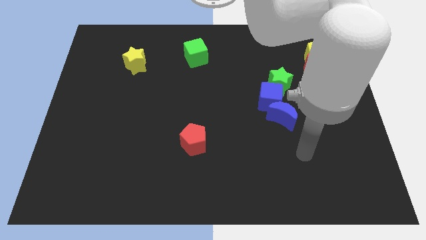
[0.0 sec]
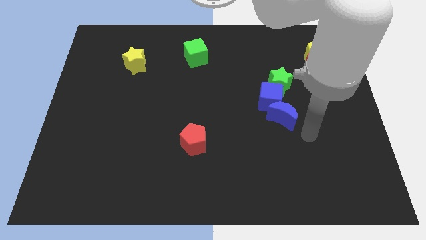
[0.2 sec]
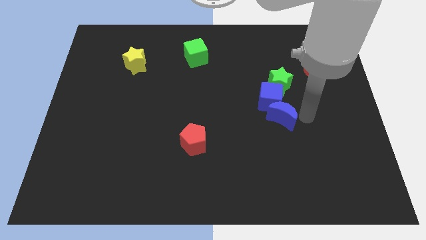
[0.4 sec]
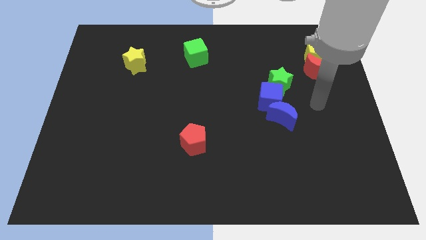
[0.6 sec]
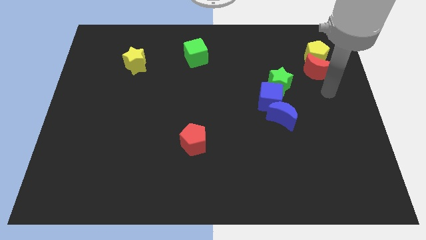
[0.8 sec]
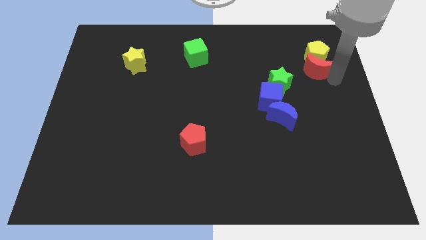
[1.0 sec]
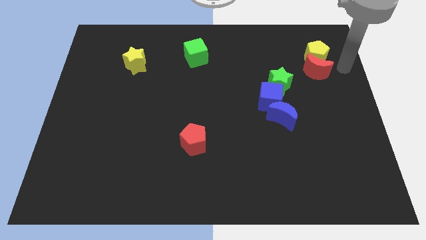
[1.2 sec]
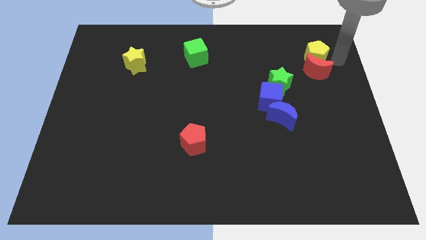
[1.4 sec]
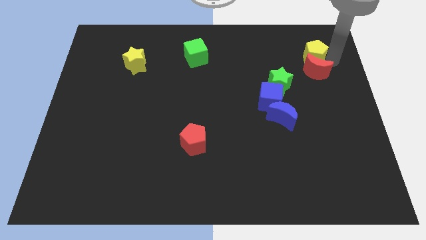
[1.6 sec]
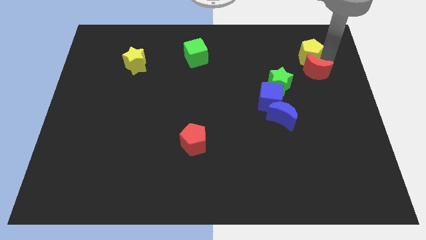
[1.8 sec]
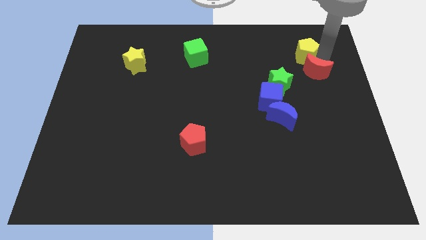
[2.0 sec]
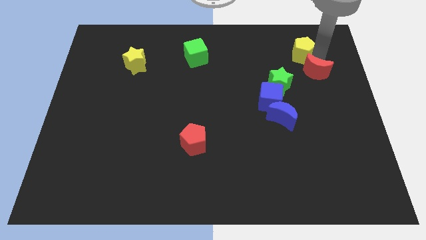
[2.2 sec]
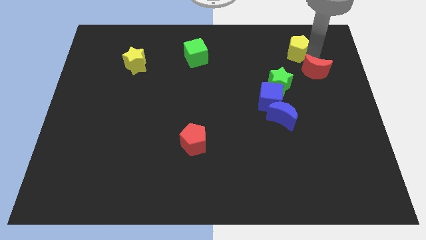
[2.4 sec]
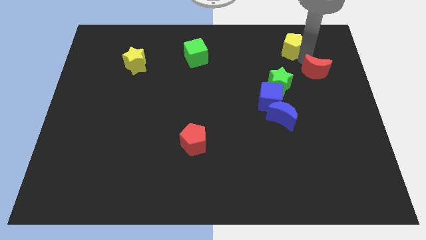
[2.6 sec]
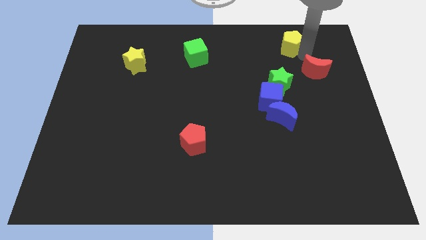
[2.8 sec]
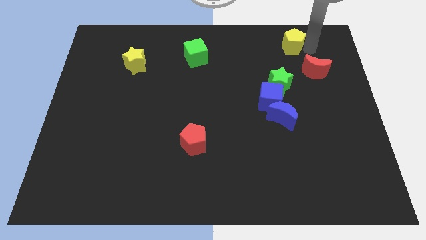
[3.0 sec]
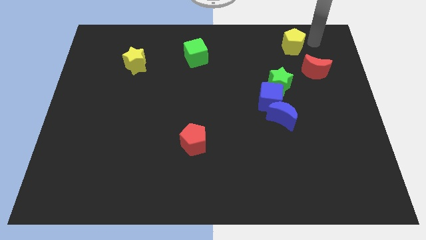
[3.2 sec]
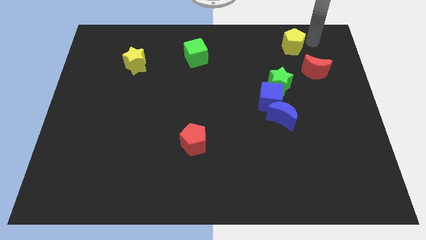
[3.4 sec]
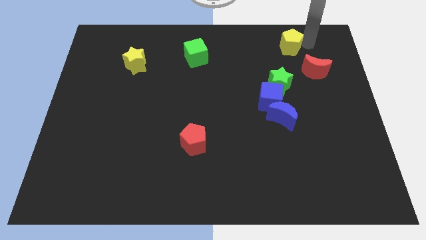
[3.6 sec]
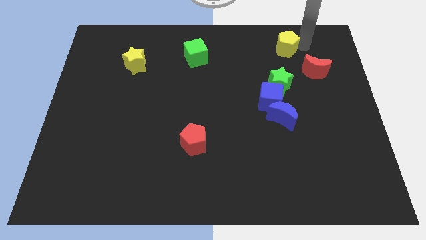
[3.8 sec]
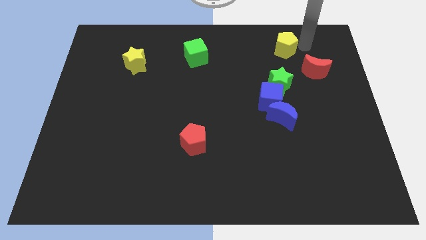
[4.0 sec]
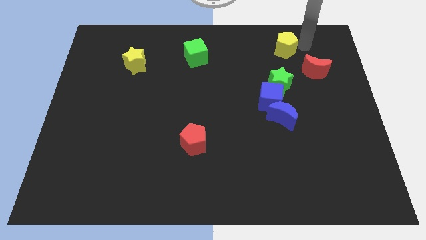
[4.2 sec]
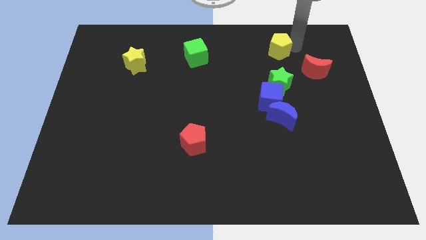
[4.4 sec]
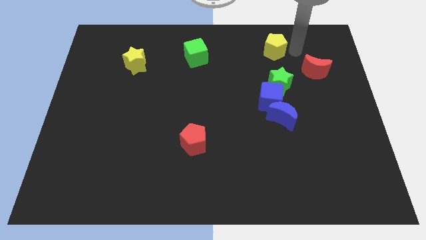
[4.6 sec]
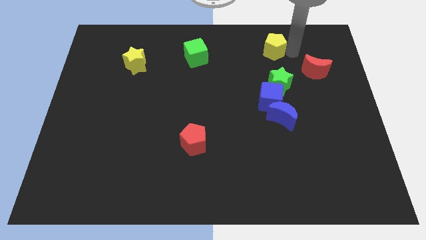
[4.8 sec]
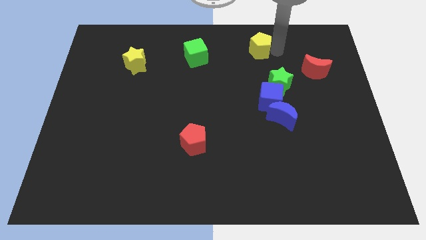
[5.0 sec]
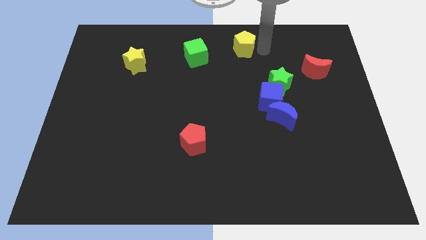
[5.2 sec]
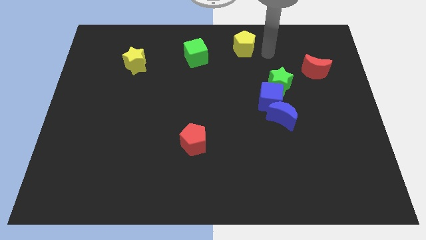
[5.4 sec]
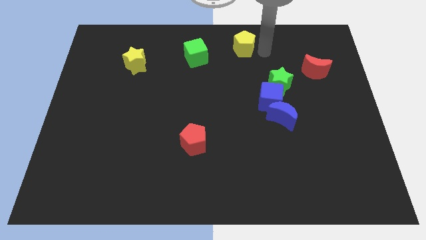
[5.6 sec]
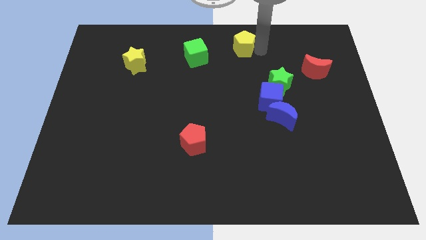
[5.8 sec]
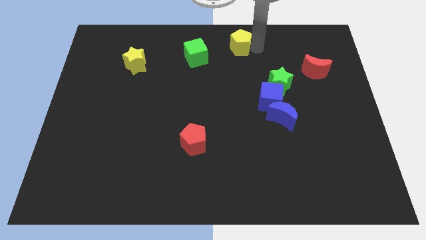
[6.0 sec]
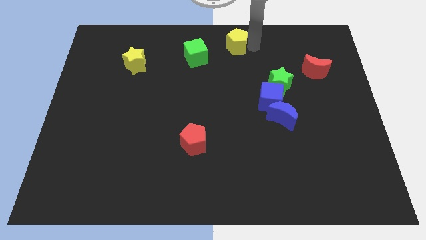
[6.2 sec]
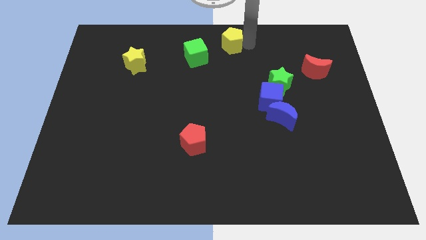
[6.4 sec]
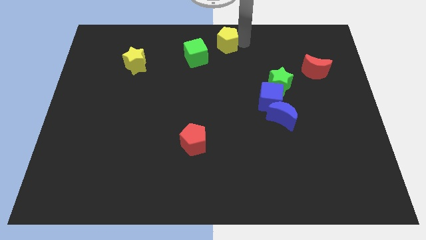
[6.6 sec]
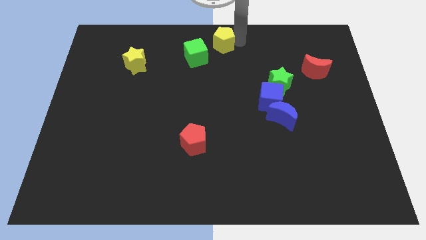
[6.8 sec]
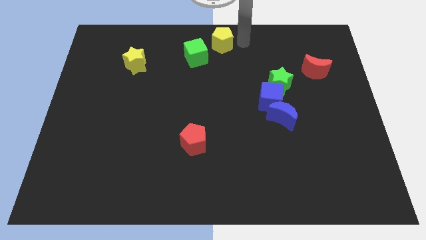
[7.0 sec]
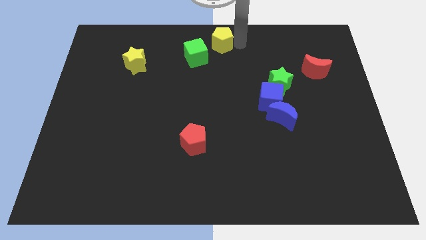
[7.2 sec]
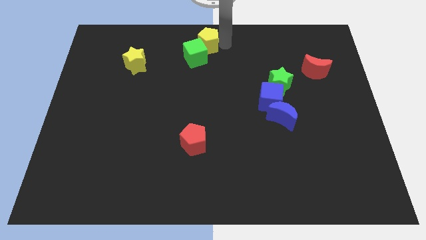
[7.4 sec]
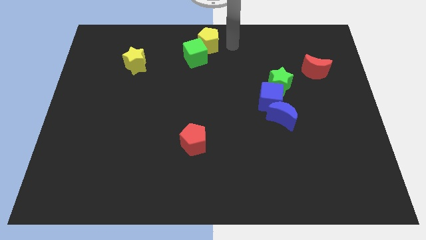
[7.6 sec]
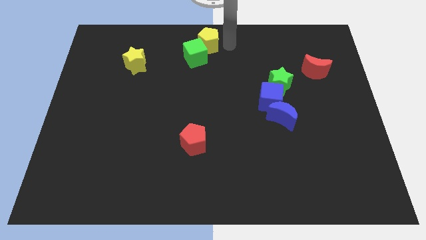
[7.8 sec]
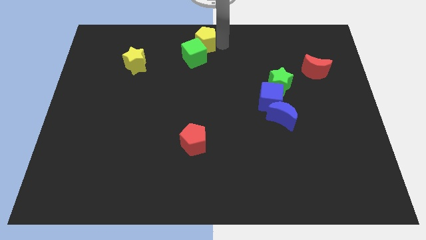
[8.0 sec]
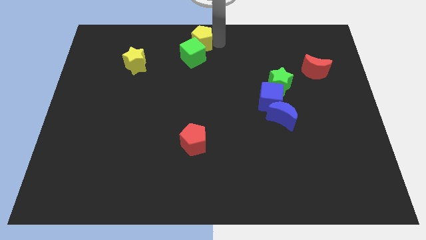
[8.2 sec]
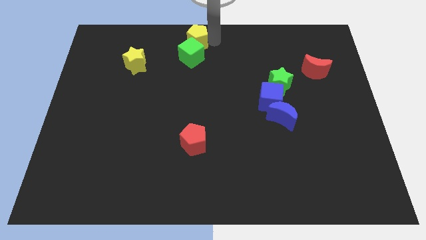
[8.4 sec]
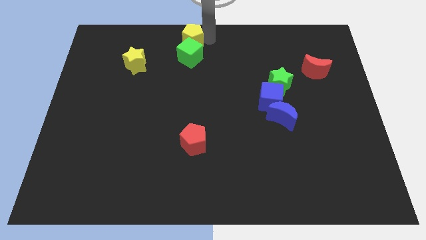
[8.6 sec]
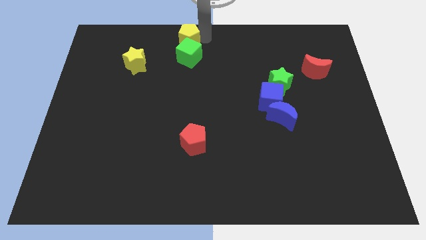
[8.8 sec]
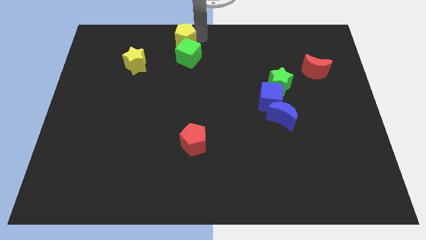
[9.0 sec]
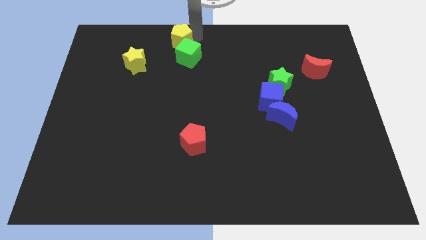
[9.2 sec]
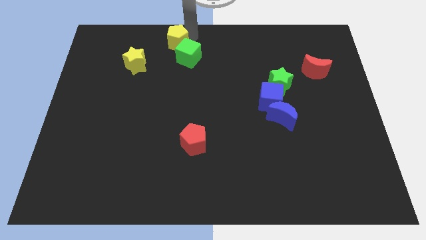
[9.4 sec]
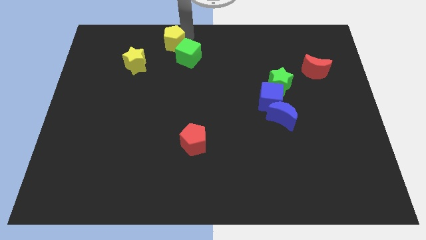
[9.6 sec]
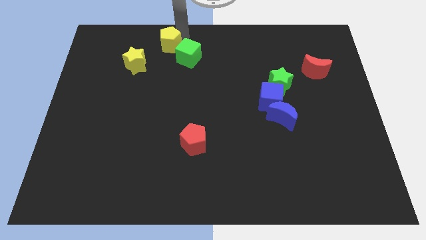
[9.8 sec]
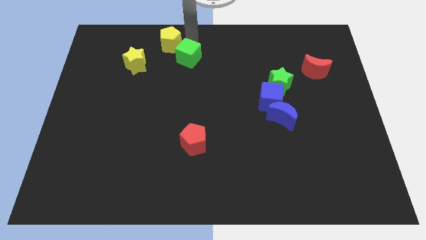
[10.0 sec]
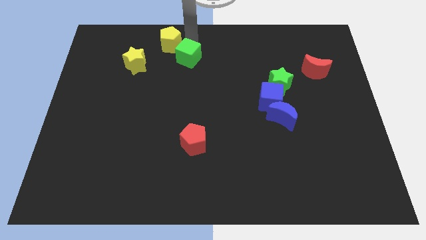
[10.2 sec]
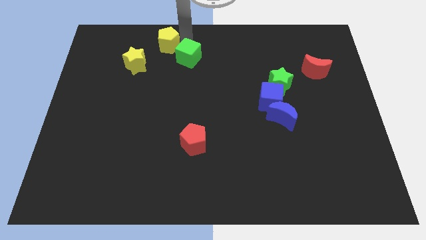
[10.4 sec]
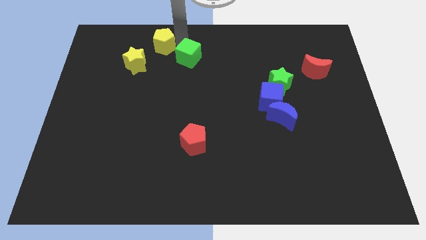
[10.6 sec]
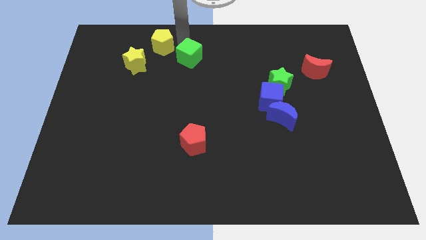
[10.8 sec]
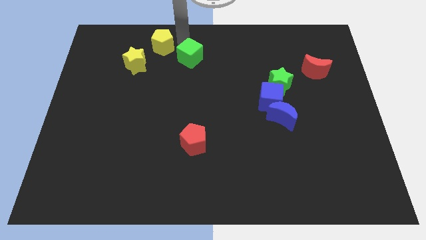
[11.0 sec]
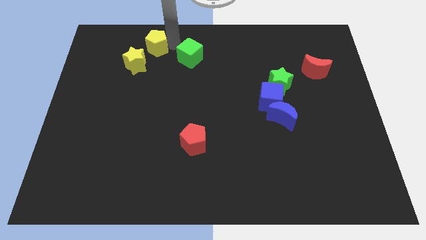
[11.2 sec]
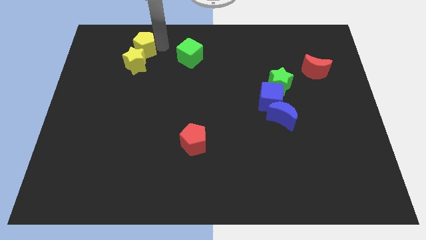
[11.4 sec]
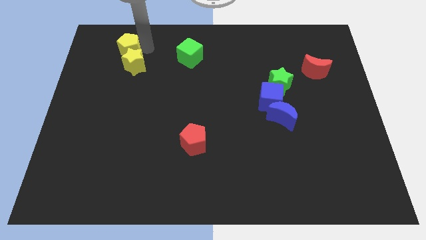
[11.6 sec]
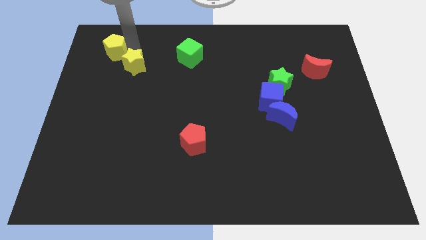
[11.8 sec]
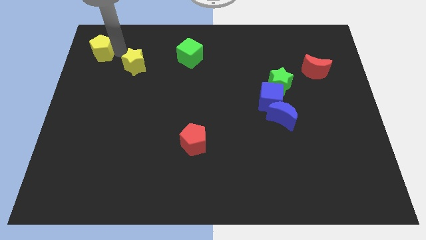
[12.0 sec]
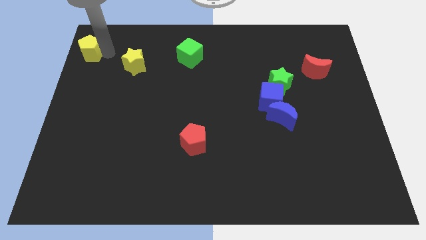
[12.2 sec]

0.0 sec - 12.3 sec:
push the yellow pentagon to the upper left corner
